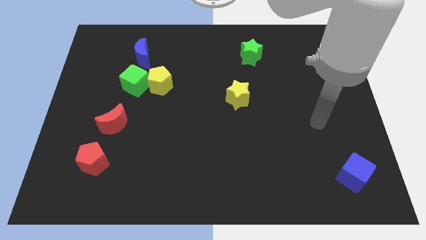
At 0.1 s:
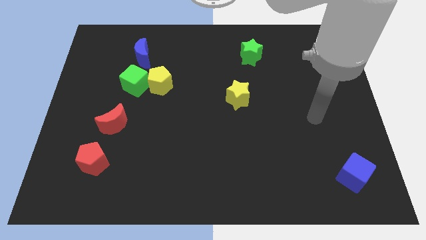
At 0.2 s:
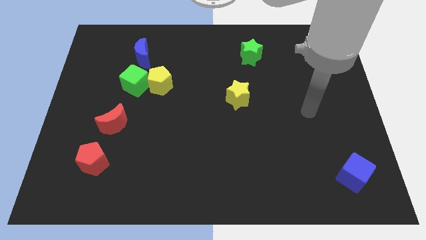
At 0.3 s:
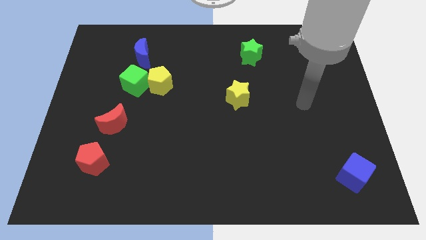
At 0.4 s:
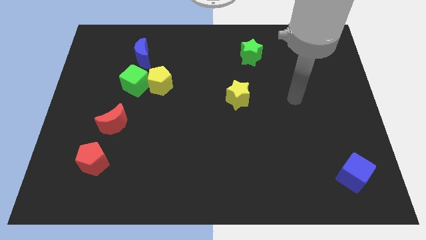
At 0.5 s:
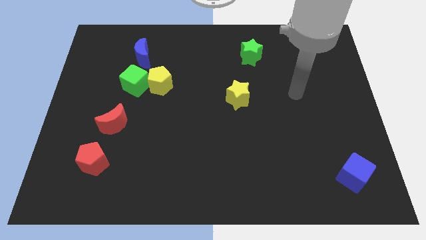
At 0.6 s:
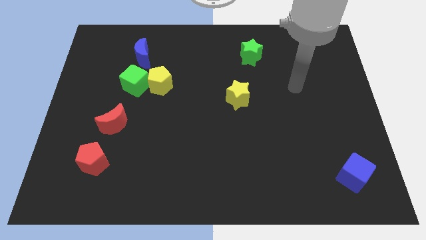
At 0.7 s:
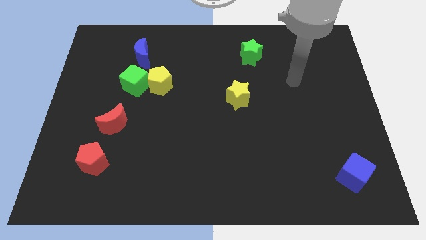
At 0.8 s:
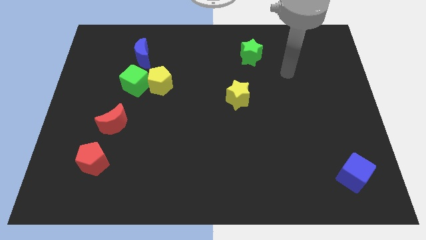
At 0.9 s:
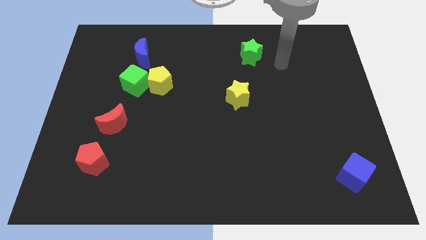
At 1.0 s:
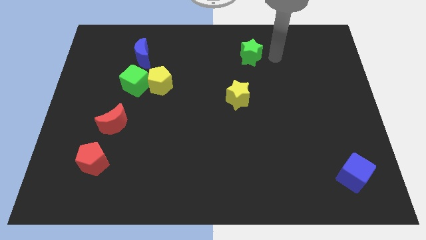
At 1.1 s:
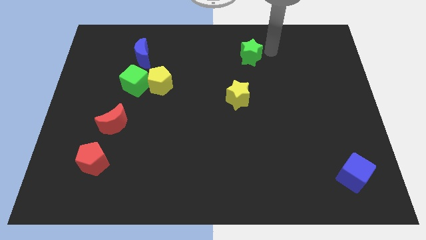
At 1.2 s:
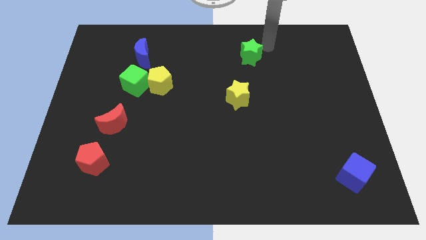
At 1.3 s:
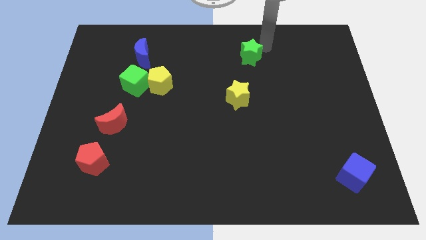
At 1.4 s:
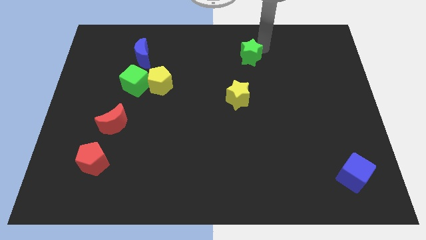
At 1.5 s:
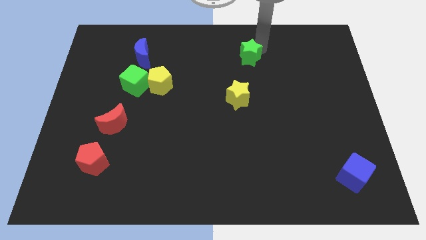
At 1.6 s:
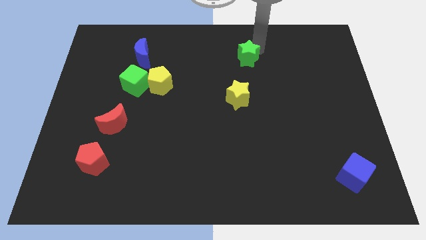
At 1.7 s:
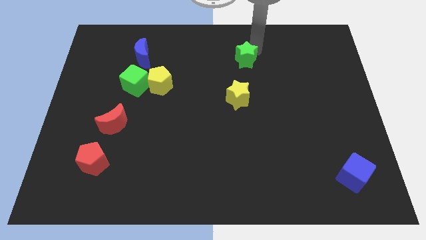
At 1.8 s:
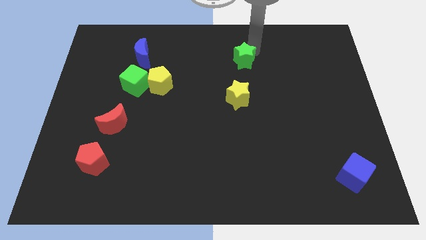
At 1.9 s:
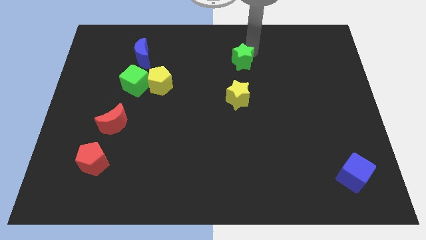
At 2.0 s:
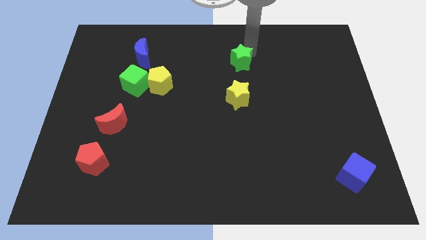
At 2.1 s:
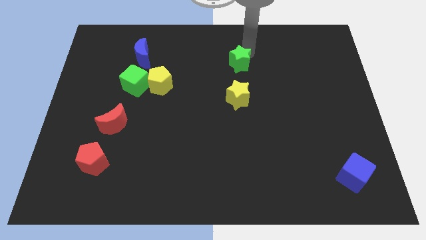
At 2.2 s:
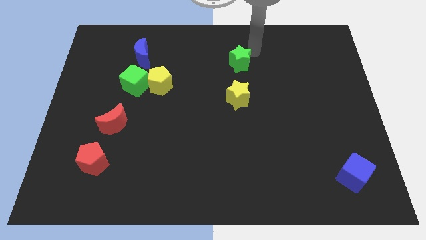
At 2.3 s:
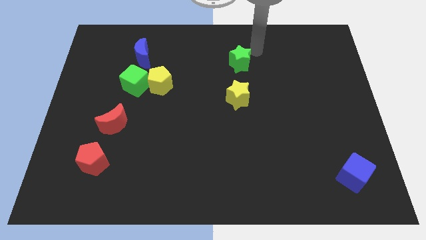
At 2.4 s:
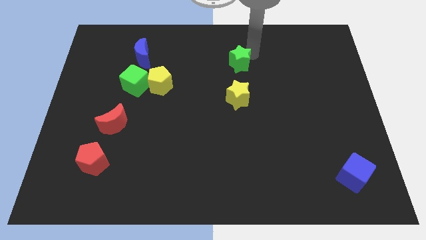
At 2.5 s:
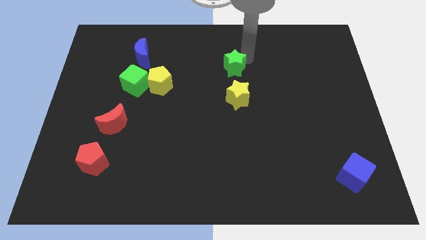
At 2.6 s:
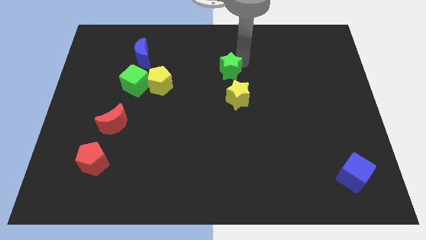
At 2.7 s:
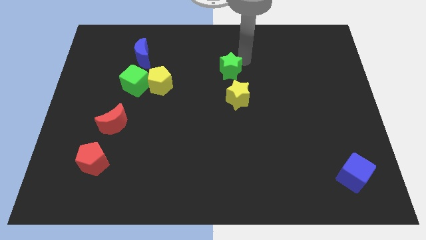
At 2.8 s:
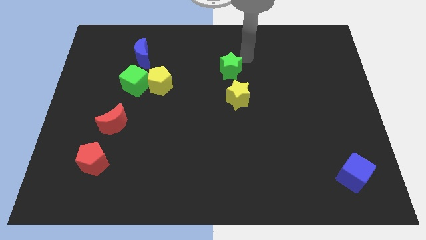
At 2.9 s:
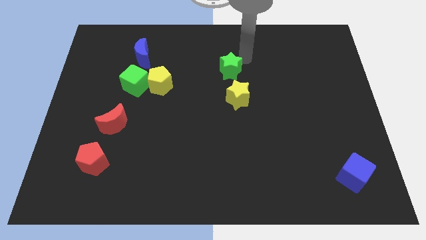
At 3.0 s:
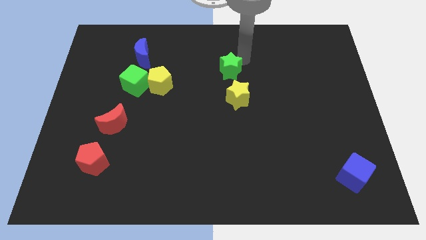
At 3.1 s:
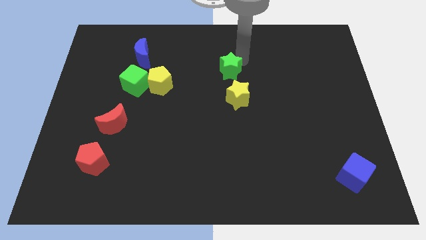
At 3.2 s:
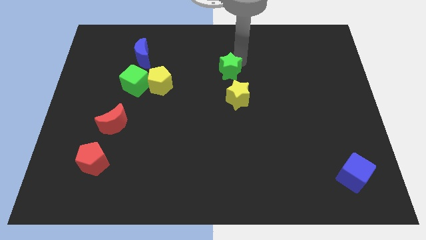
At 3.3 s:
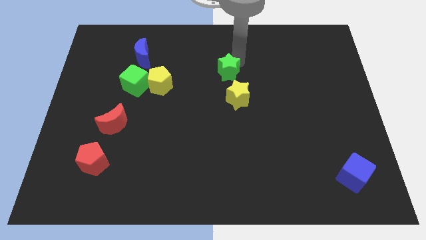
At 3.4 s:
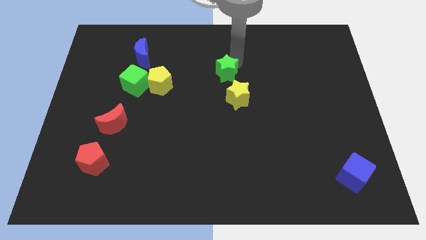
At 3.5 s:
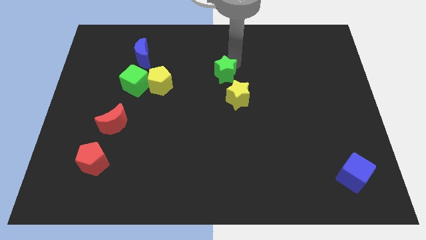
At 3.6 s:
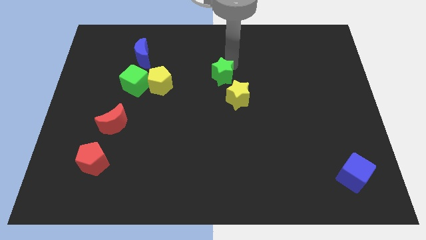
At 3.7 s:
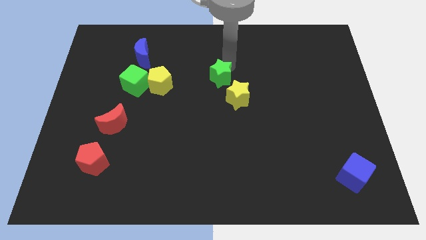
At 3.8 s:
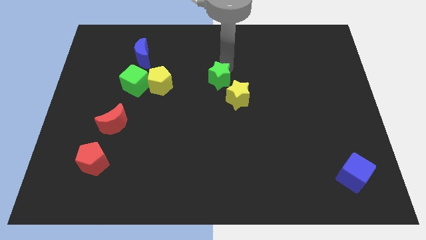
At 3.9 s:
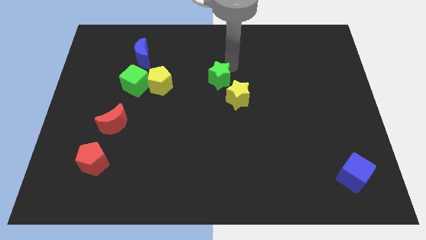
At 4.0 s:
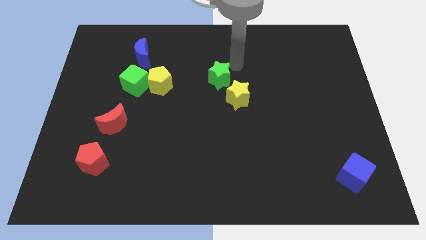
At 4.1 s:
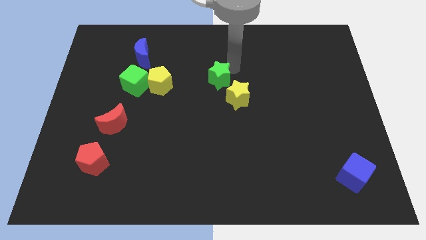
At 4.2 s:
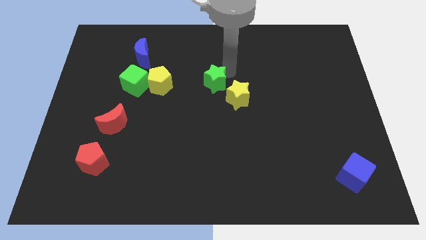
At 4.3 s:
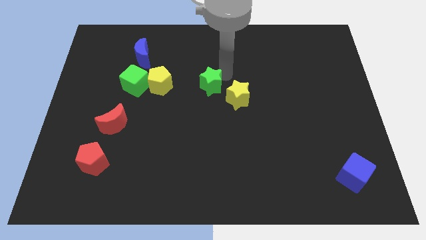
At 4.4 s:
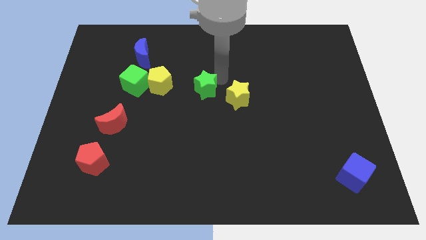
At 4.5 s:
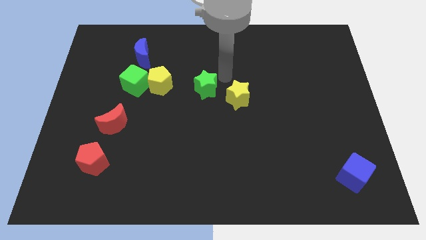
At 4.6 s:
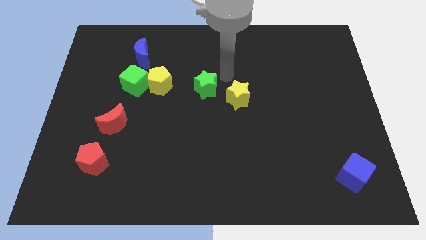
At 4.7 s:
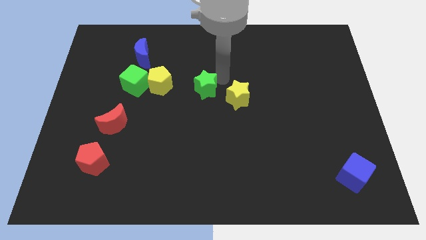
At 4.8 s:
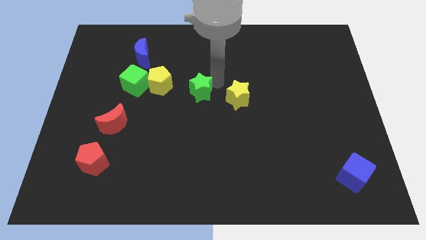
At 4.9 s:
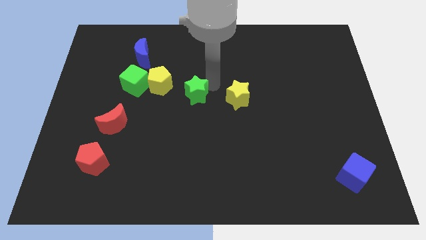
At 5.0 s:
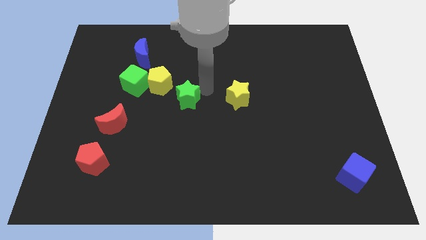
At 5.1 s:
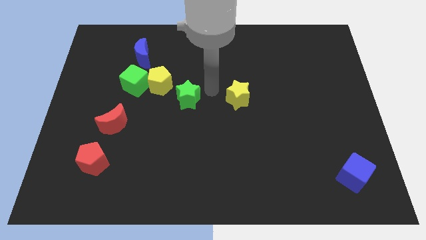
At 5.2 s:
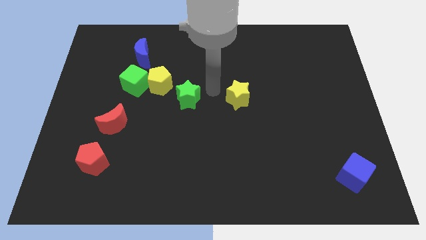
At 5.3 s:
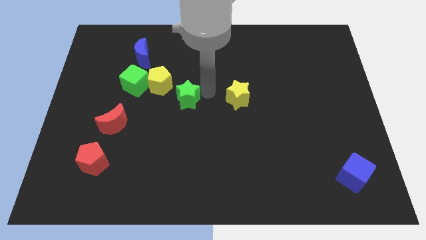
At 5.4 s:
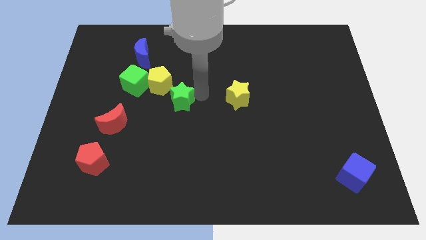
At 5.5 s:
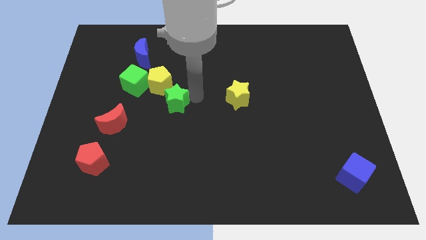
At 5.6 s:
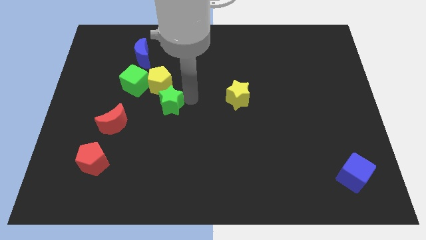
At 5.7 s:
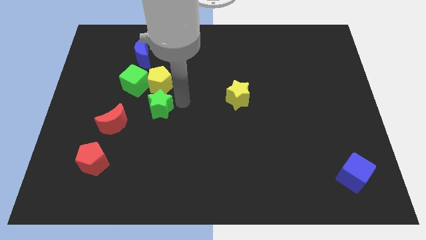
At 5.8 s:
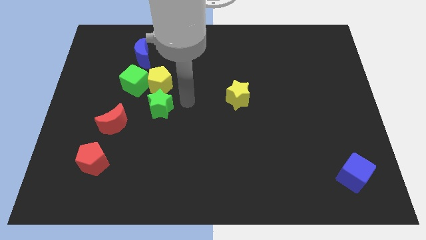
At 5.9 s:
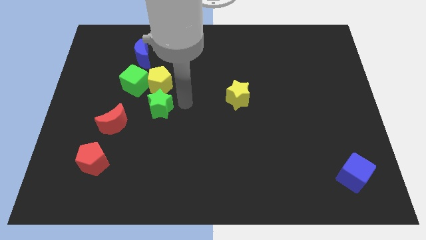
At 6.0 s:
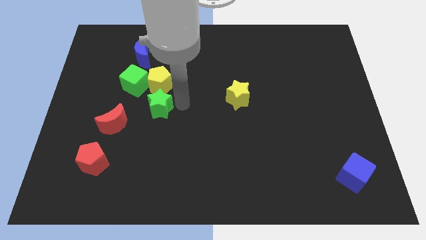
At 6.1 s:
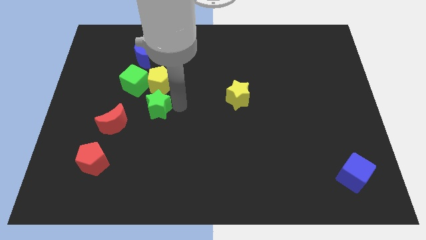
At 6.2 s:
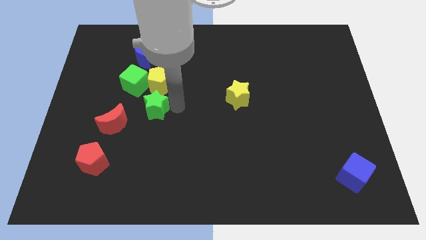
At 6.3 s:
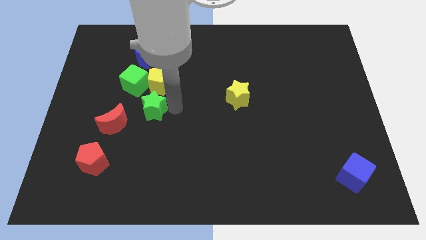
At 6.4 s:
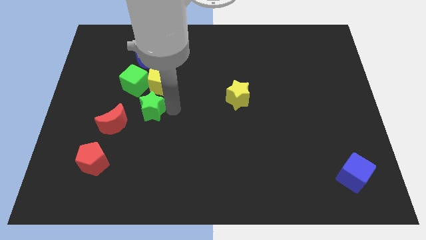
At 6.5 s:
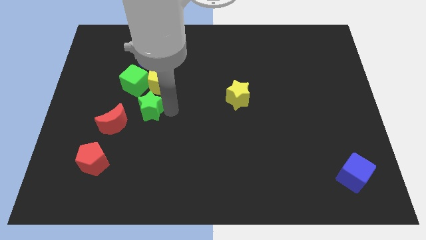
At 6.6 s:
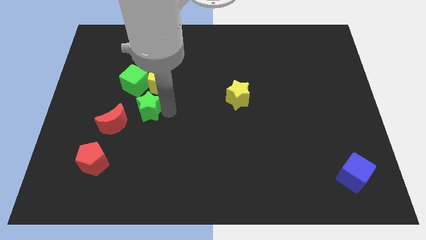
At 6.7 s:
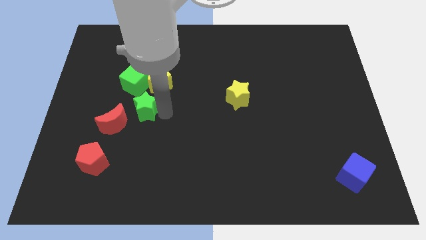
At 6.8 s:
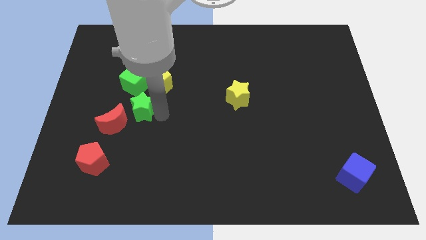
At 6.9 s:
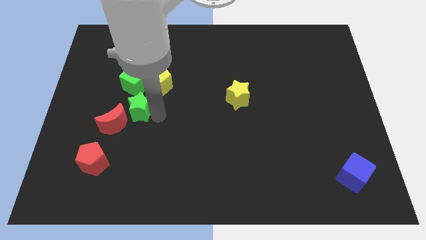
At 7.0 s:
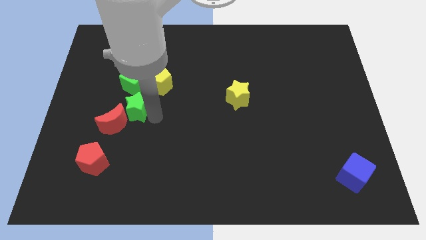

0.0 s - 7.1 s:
put the green star to the red moon

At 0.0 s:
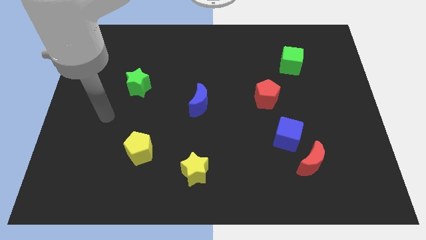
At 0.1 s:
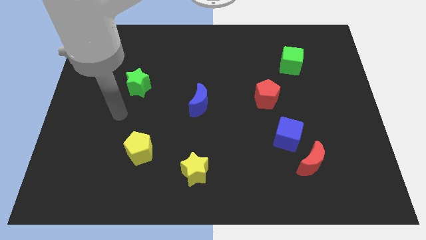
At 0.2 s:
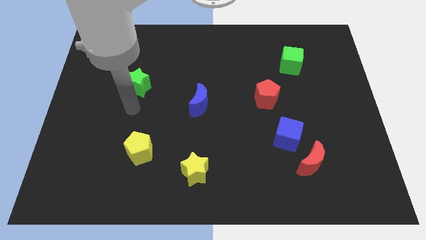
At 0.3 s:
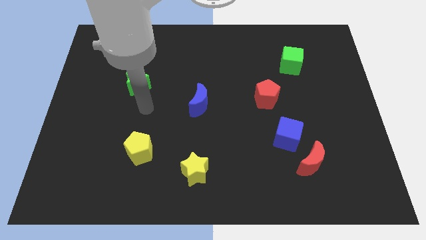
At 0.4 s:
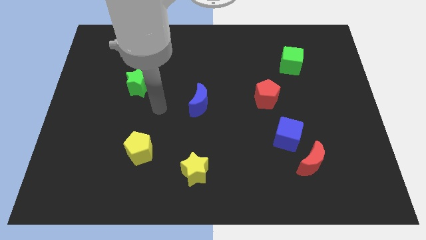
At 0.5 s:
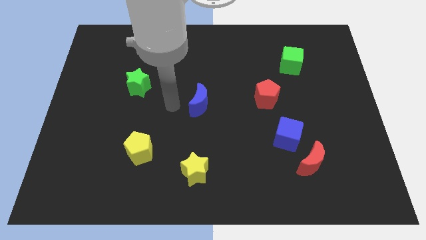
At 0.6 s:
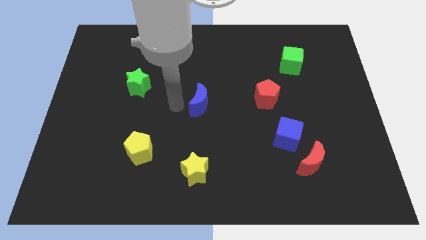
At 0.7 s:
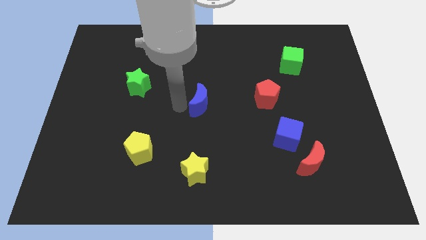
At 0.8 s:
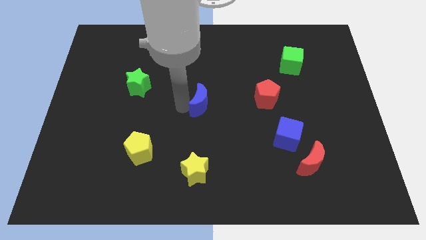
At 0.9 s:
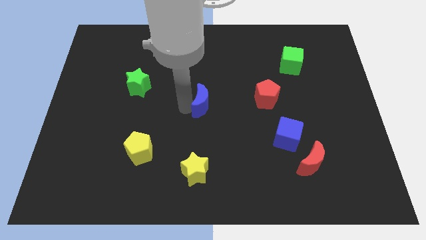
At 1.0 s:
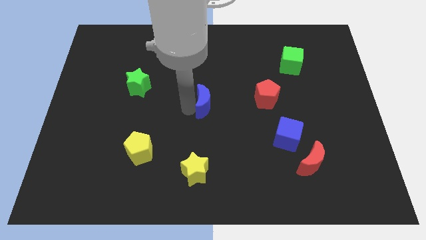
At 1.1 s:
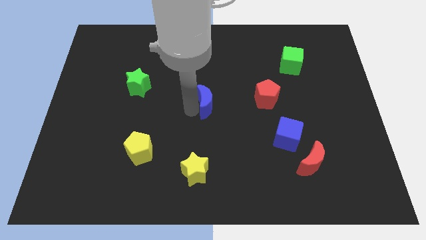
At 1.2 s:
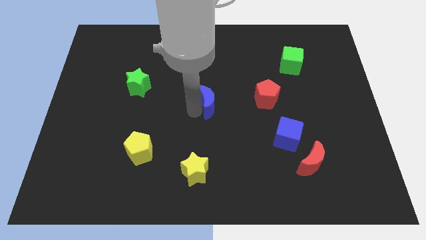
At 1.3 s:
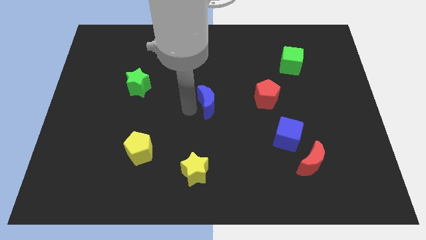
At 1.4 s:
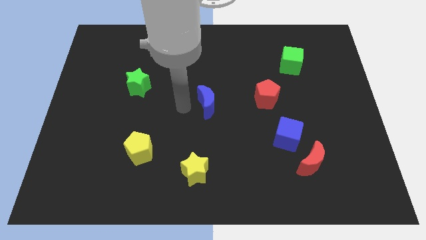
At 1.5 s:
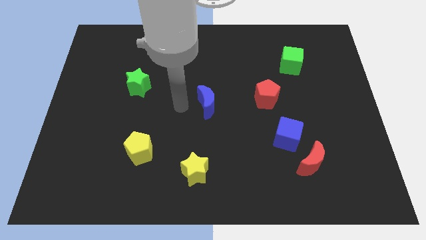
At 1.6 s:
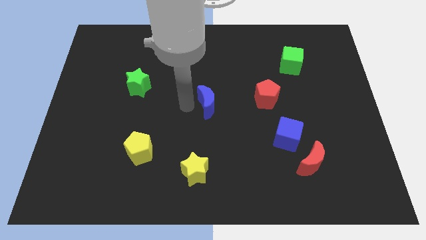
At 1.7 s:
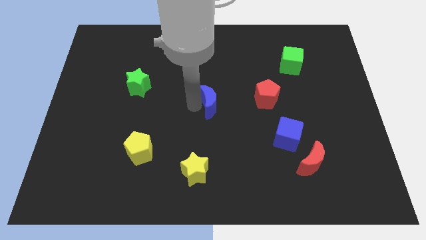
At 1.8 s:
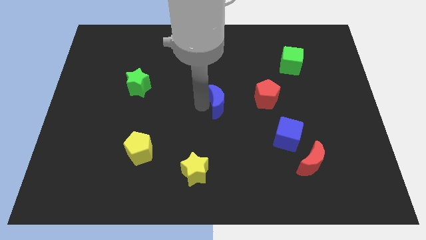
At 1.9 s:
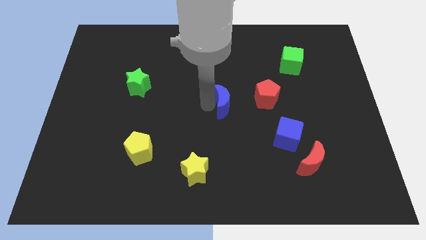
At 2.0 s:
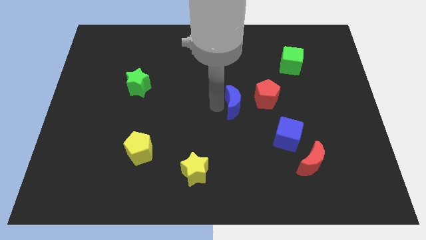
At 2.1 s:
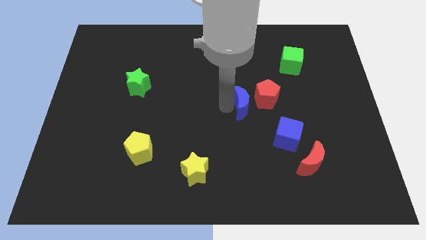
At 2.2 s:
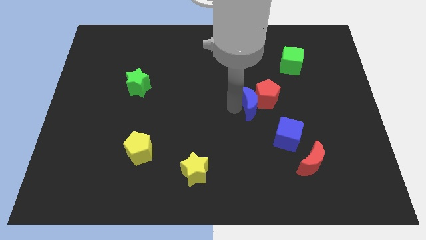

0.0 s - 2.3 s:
move the blue moon to the red pentagon
